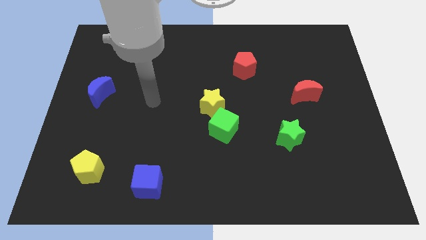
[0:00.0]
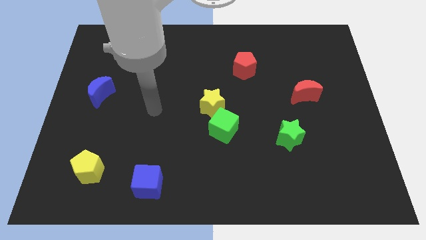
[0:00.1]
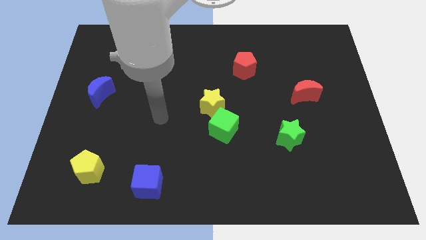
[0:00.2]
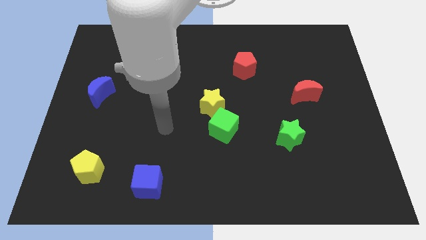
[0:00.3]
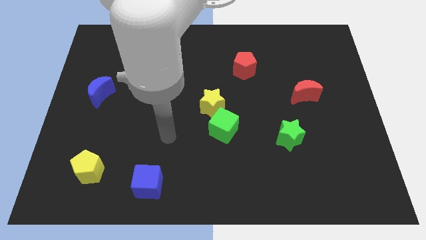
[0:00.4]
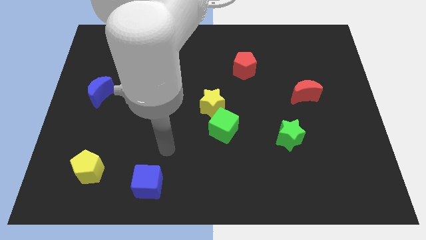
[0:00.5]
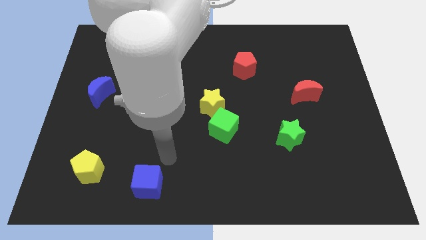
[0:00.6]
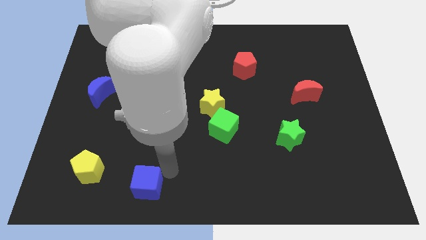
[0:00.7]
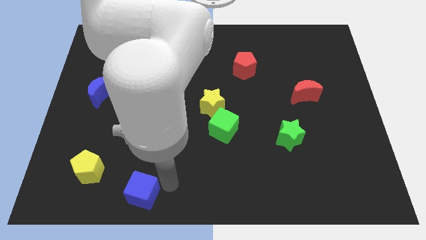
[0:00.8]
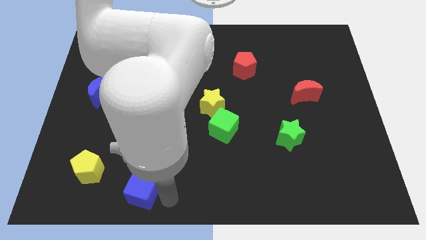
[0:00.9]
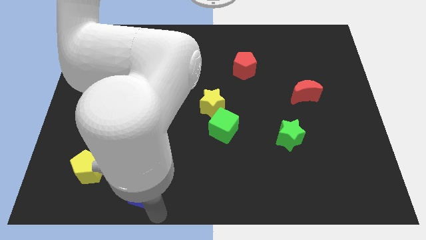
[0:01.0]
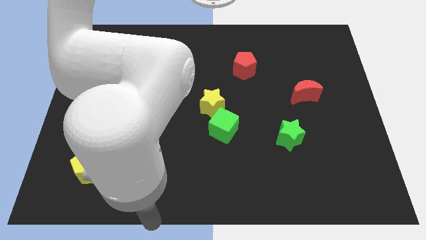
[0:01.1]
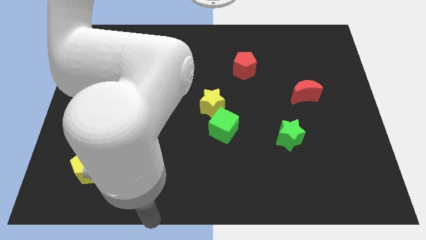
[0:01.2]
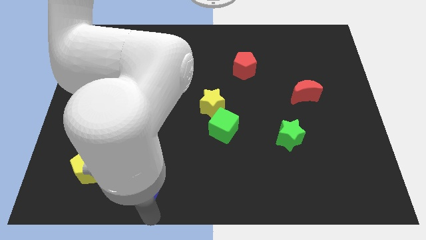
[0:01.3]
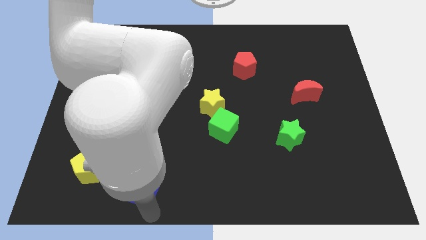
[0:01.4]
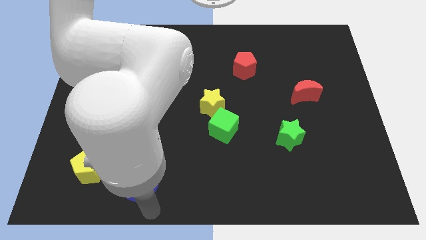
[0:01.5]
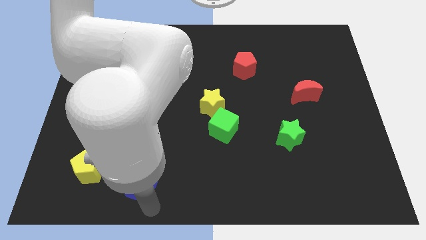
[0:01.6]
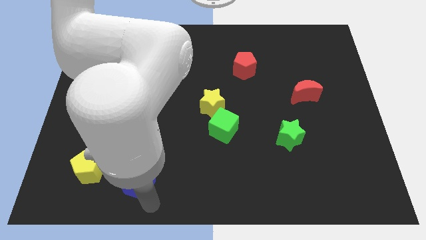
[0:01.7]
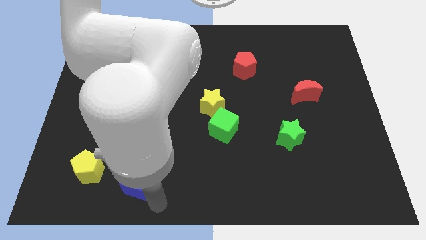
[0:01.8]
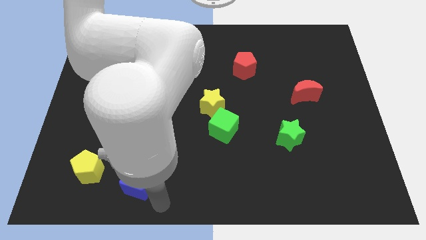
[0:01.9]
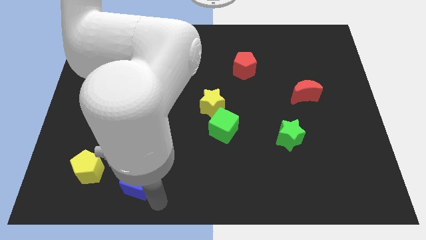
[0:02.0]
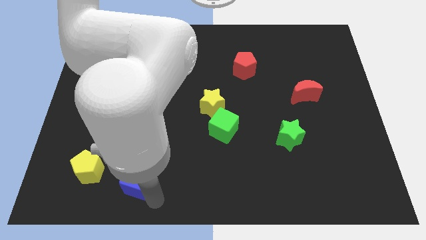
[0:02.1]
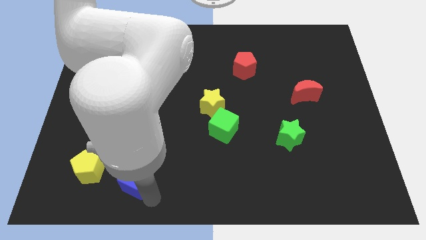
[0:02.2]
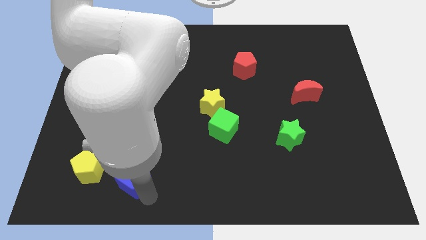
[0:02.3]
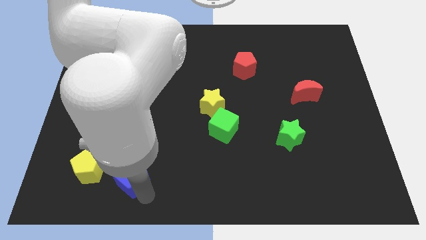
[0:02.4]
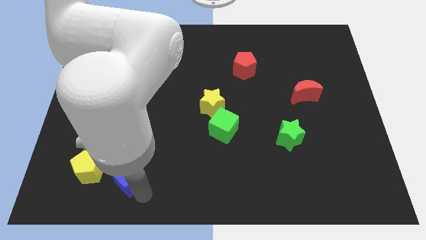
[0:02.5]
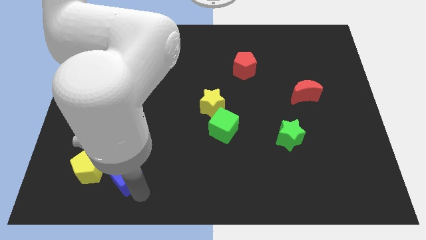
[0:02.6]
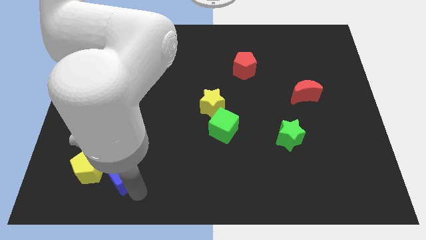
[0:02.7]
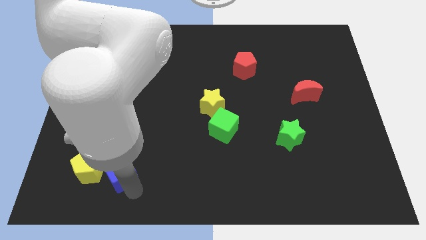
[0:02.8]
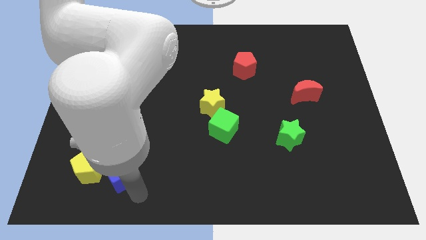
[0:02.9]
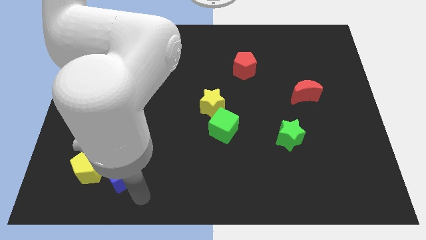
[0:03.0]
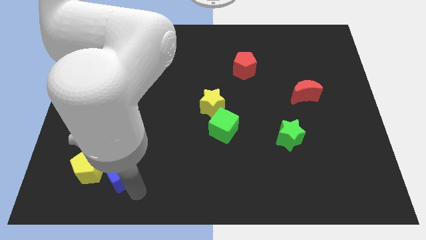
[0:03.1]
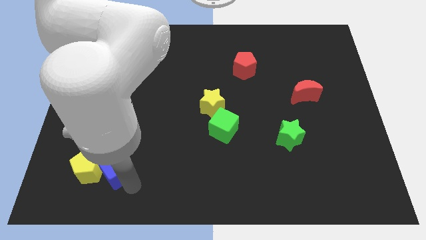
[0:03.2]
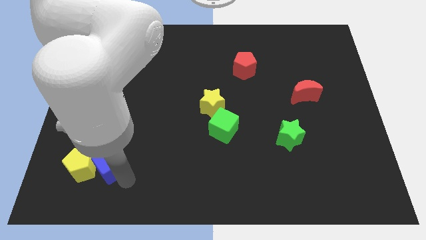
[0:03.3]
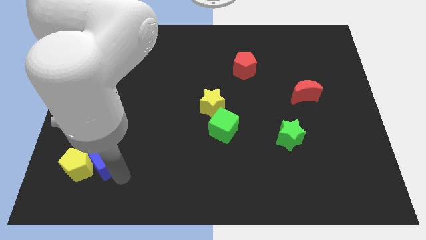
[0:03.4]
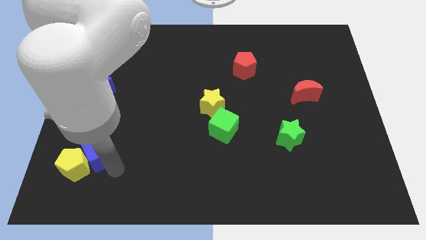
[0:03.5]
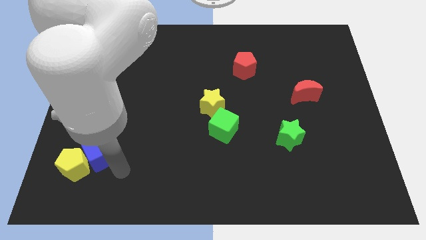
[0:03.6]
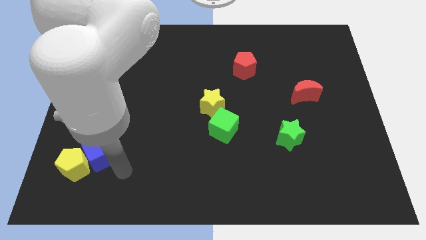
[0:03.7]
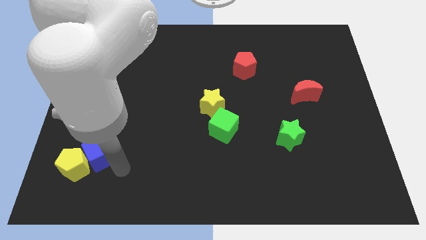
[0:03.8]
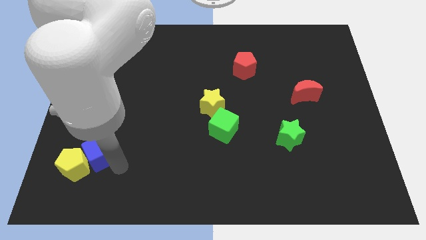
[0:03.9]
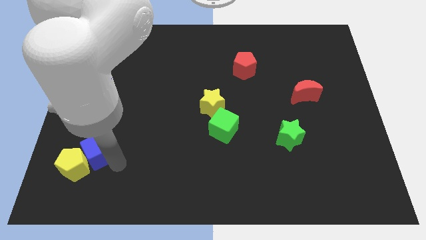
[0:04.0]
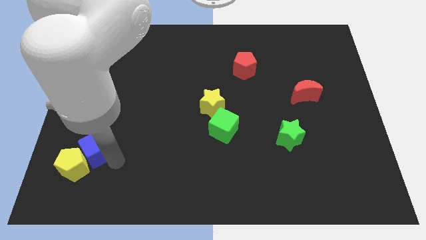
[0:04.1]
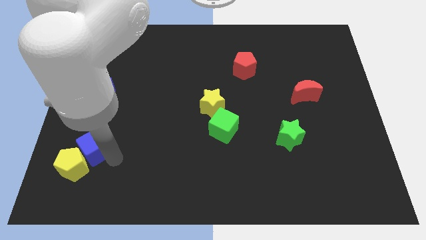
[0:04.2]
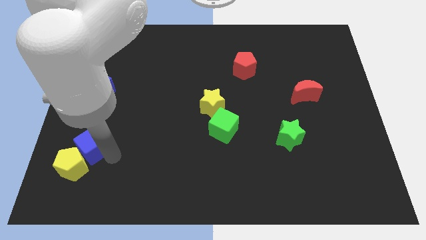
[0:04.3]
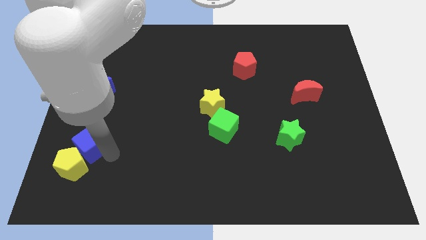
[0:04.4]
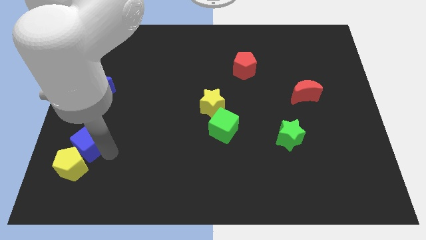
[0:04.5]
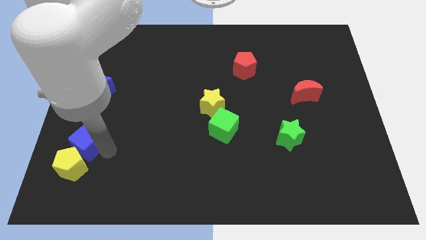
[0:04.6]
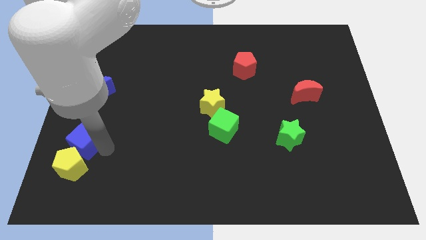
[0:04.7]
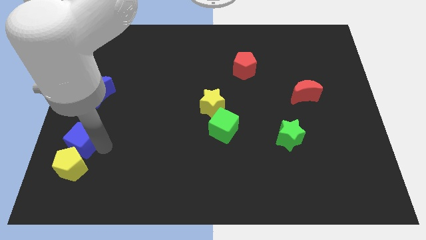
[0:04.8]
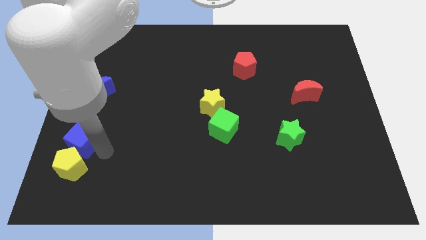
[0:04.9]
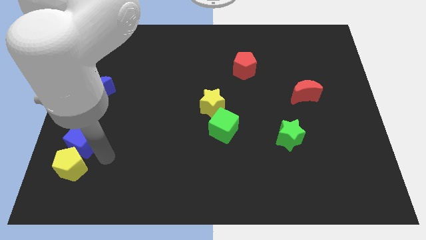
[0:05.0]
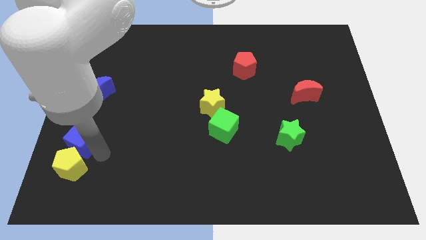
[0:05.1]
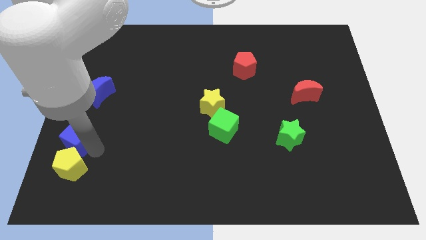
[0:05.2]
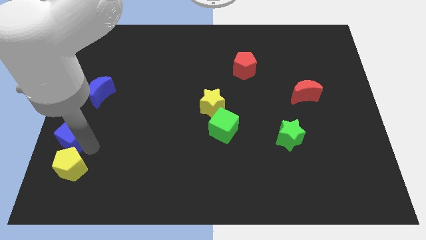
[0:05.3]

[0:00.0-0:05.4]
push the blue cube to the left side of the board

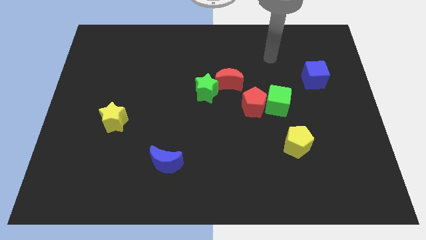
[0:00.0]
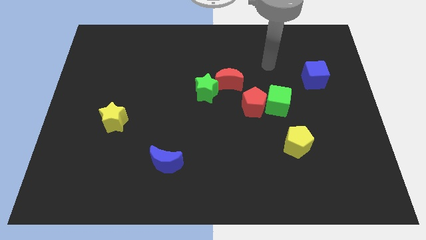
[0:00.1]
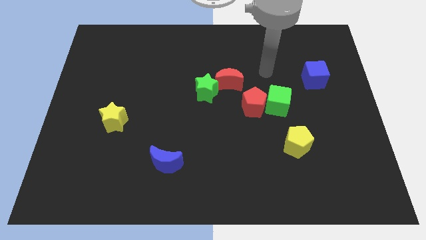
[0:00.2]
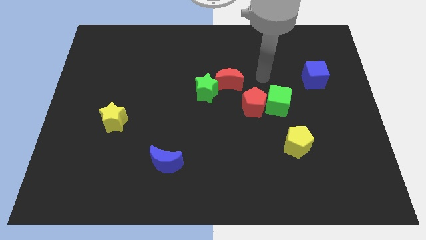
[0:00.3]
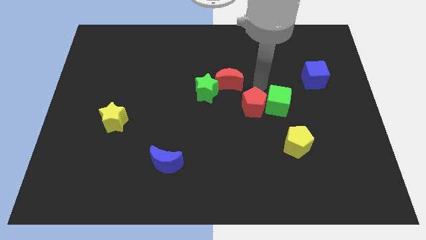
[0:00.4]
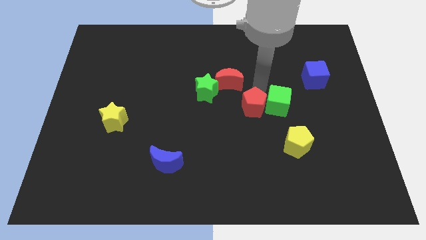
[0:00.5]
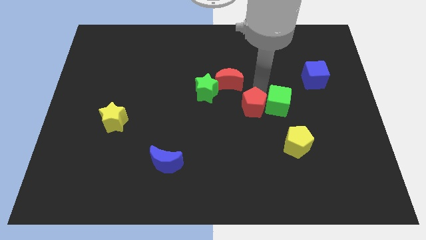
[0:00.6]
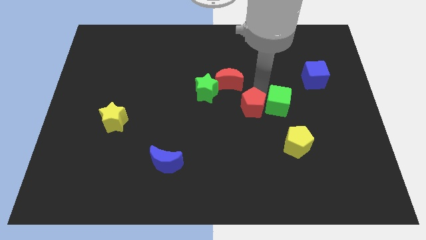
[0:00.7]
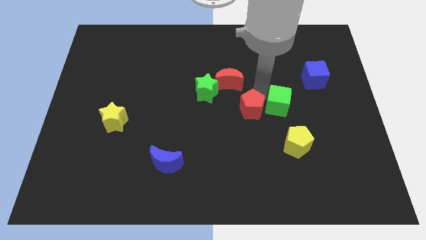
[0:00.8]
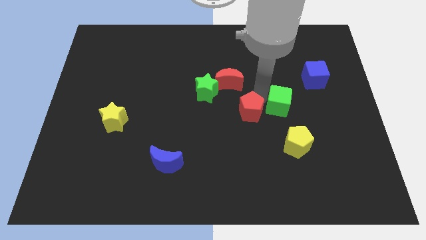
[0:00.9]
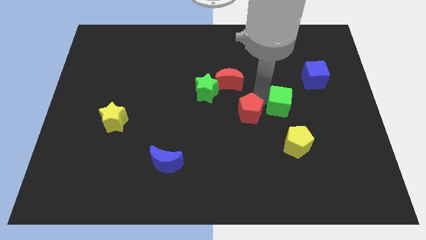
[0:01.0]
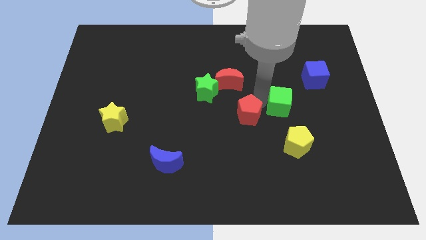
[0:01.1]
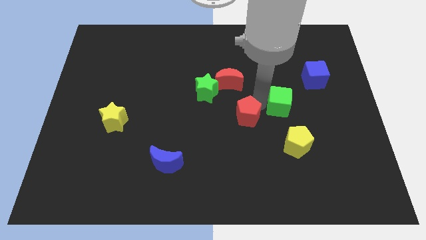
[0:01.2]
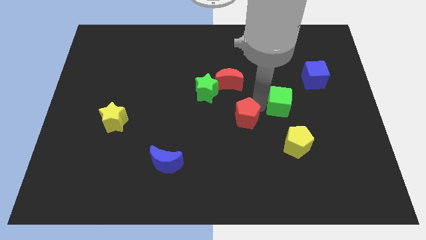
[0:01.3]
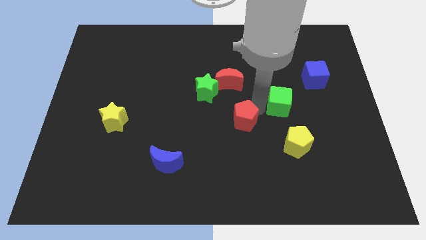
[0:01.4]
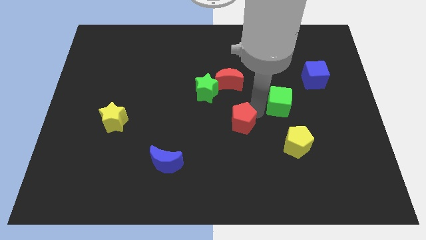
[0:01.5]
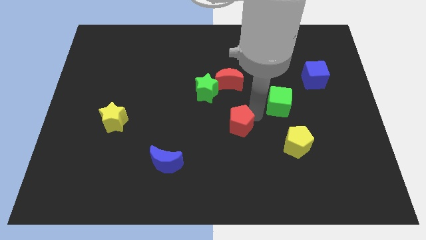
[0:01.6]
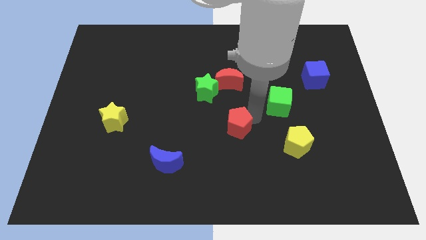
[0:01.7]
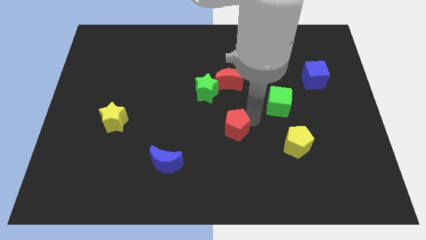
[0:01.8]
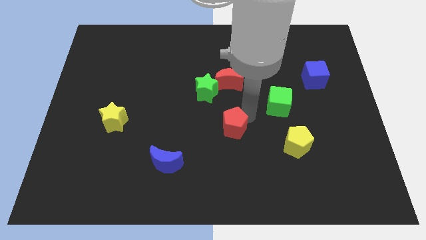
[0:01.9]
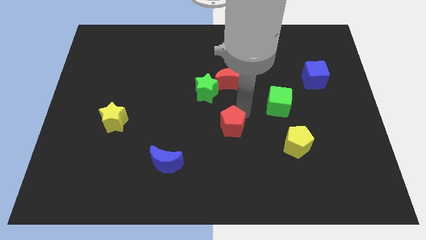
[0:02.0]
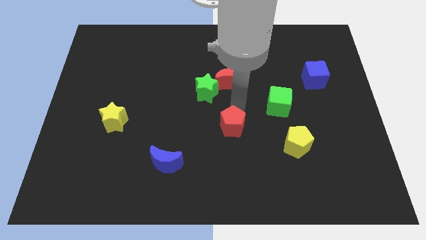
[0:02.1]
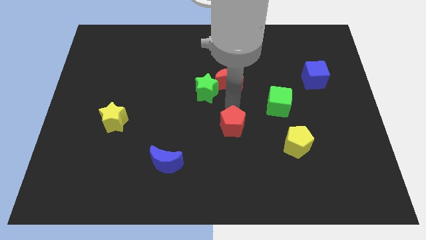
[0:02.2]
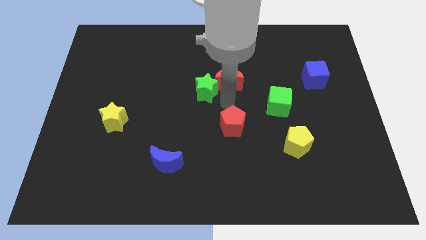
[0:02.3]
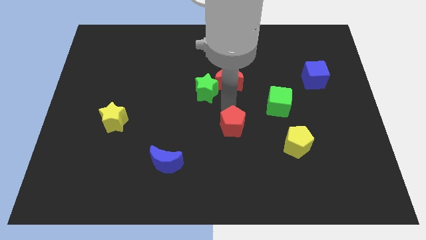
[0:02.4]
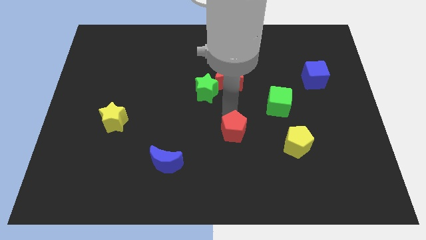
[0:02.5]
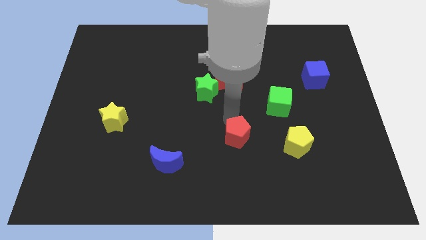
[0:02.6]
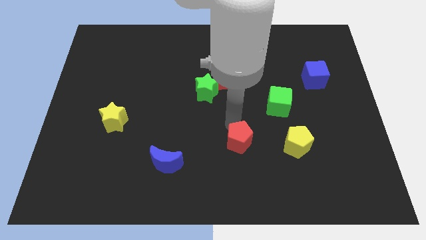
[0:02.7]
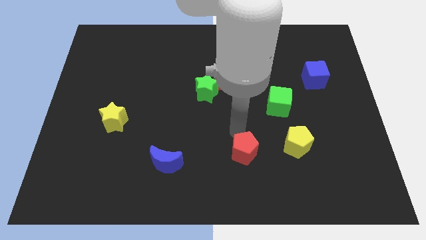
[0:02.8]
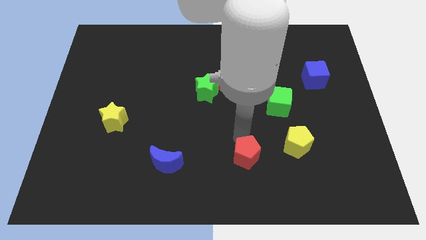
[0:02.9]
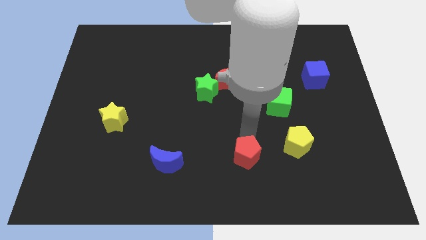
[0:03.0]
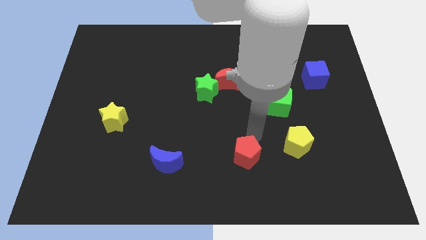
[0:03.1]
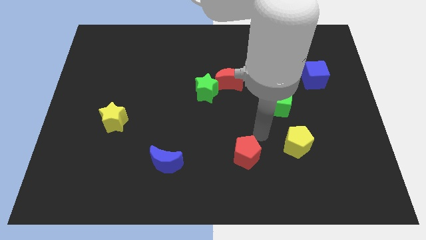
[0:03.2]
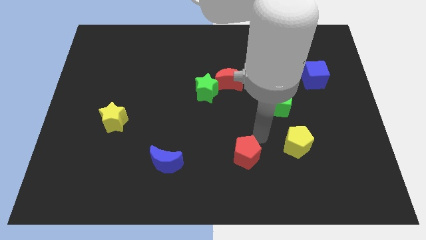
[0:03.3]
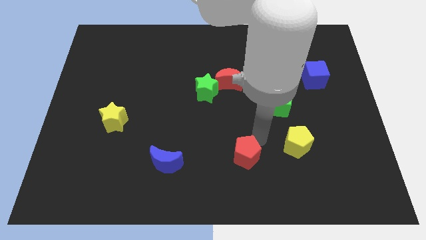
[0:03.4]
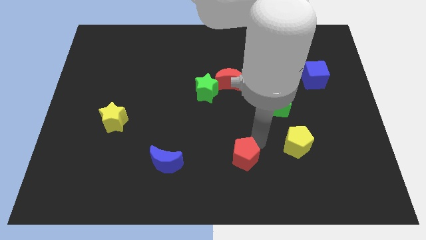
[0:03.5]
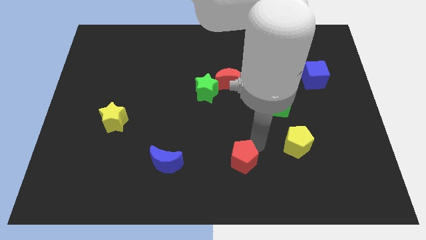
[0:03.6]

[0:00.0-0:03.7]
push the red pentagon to the bottom side
